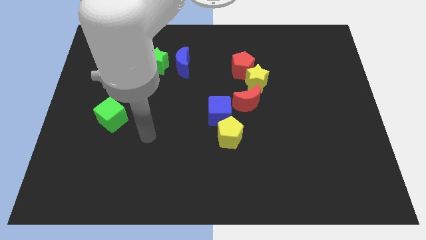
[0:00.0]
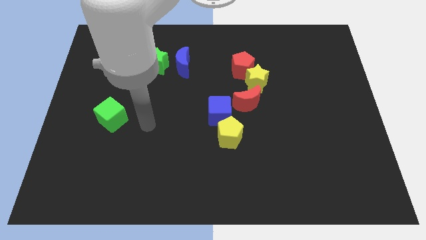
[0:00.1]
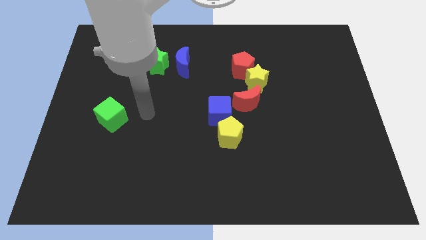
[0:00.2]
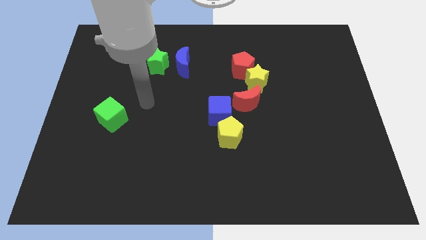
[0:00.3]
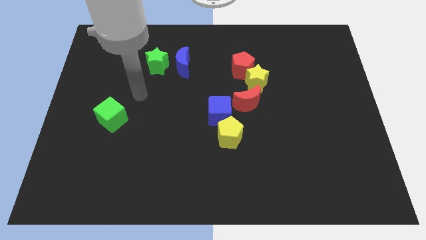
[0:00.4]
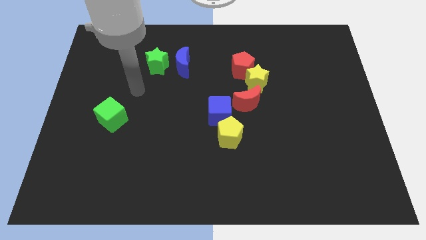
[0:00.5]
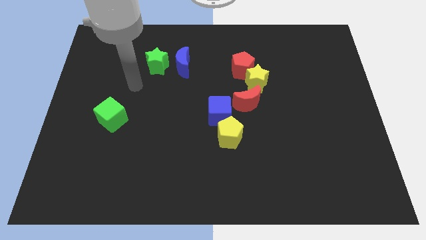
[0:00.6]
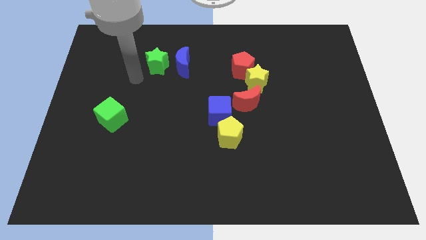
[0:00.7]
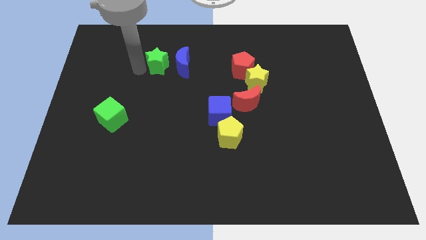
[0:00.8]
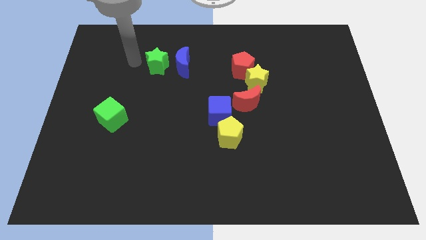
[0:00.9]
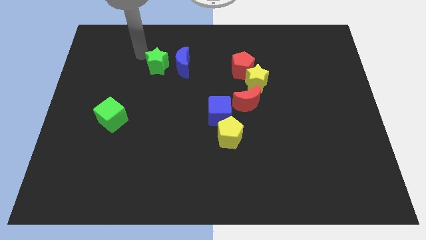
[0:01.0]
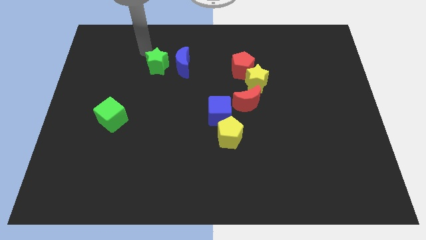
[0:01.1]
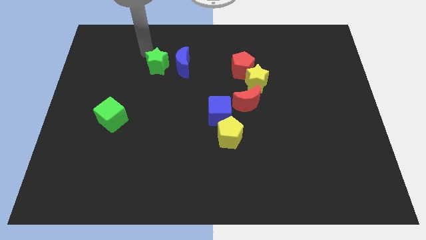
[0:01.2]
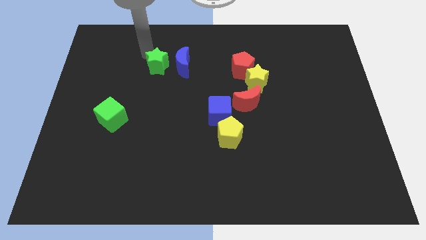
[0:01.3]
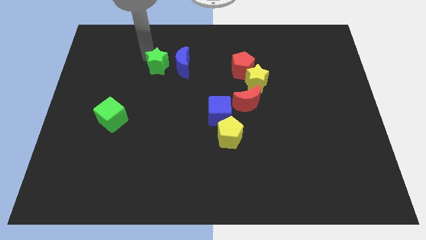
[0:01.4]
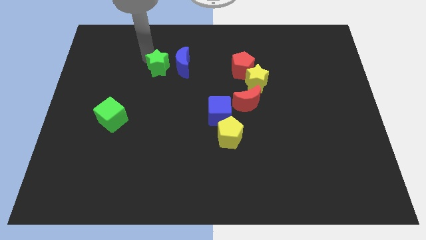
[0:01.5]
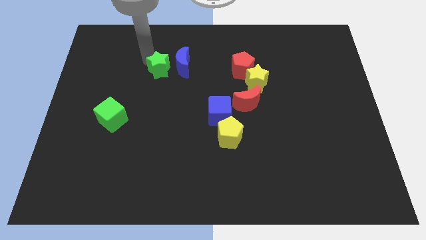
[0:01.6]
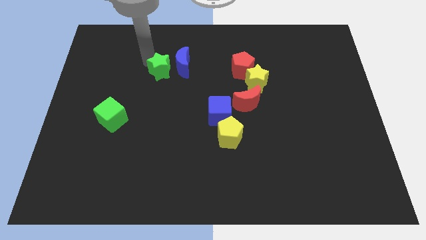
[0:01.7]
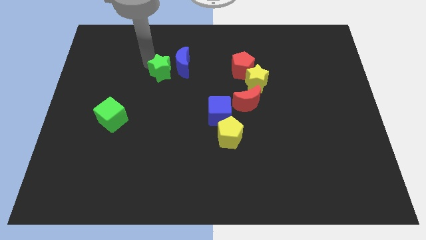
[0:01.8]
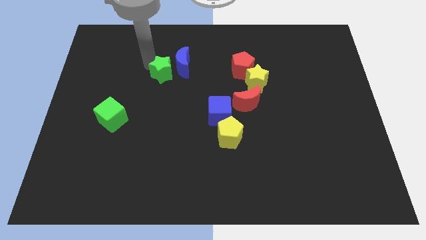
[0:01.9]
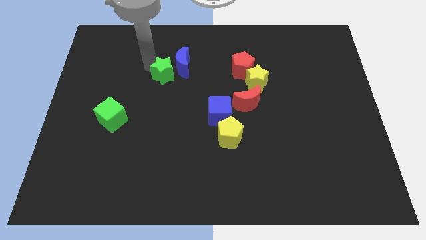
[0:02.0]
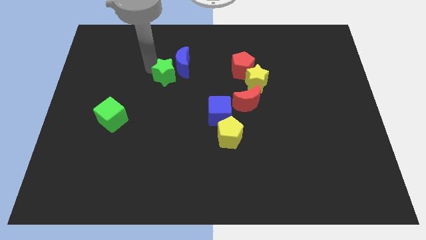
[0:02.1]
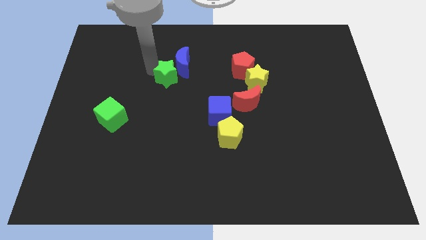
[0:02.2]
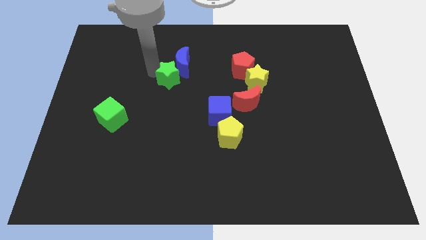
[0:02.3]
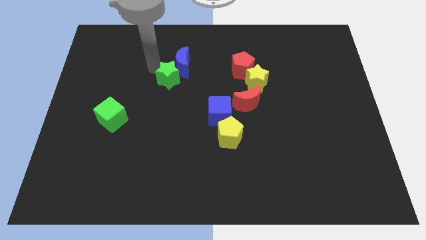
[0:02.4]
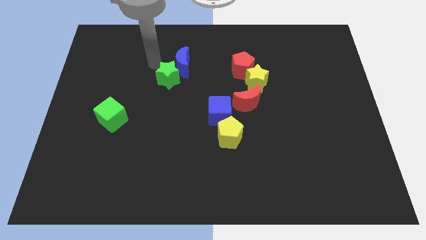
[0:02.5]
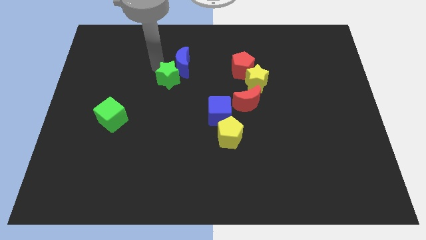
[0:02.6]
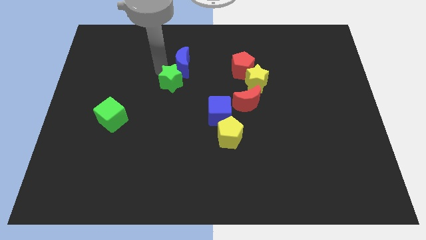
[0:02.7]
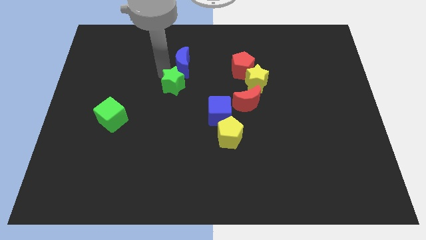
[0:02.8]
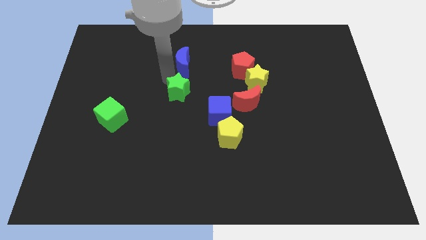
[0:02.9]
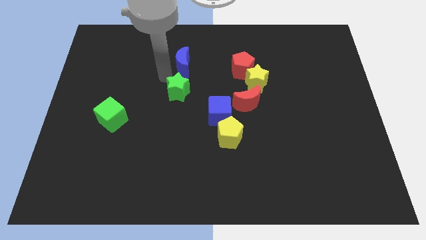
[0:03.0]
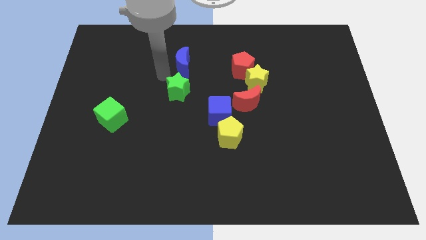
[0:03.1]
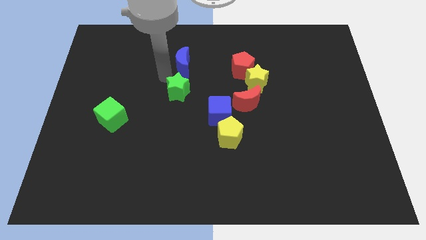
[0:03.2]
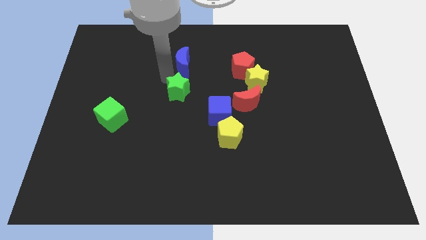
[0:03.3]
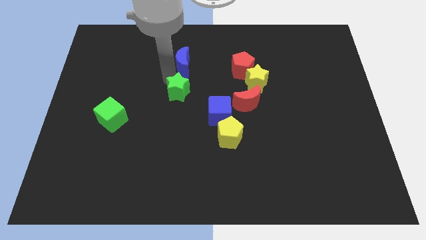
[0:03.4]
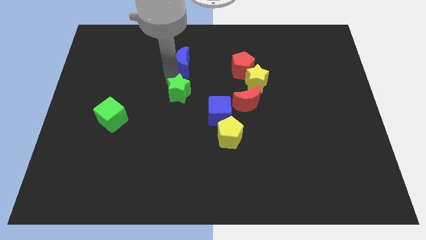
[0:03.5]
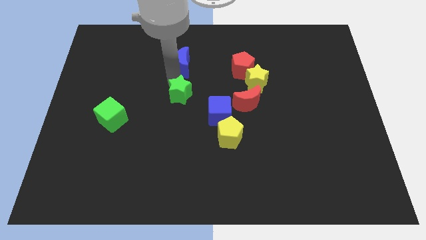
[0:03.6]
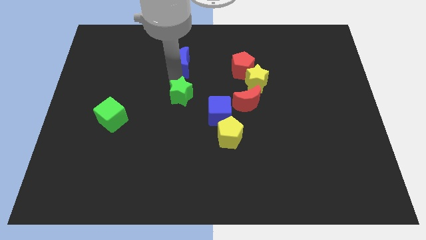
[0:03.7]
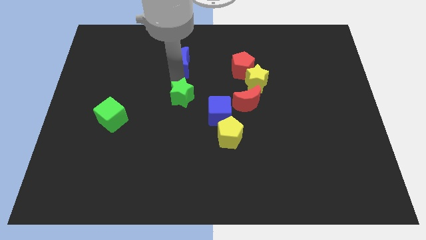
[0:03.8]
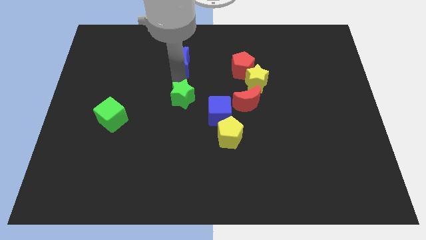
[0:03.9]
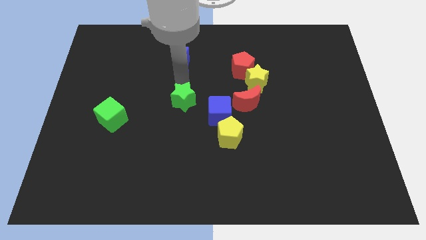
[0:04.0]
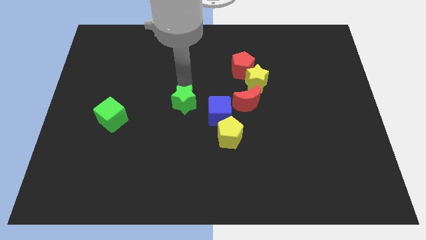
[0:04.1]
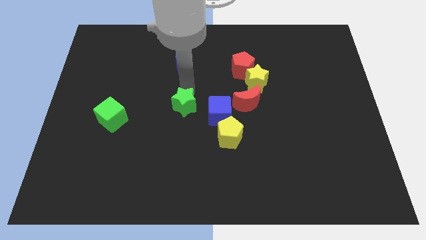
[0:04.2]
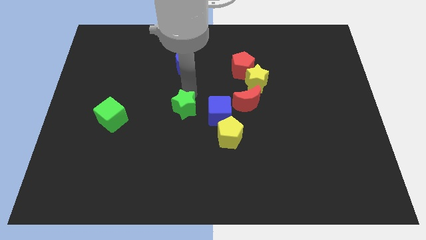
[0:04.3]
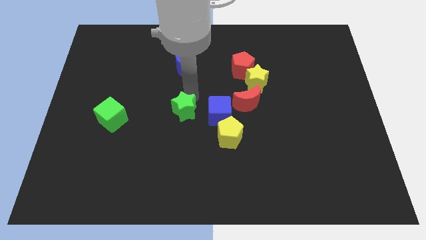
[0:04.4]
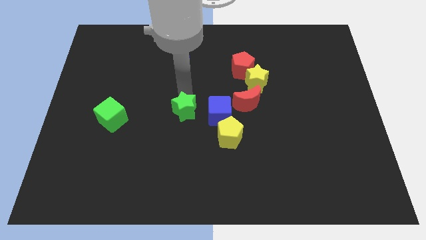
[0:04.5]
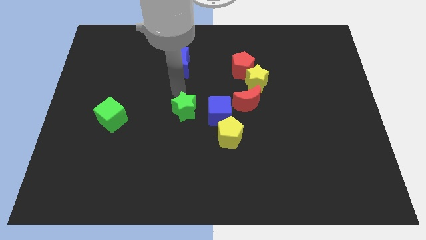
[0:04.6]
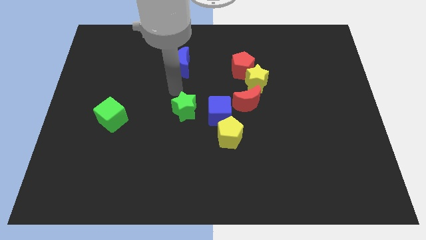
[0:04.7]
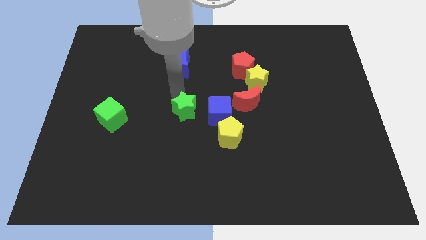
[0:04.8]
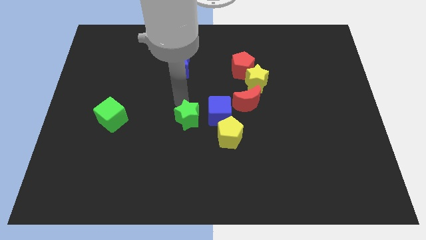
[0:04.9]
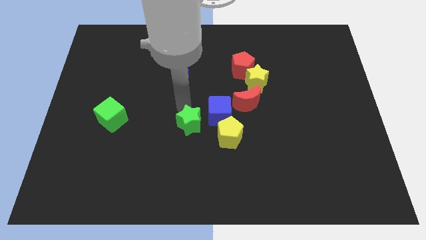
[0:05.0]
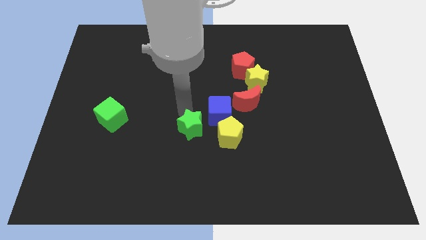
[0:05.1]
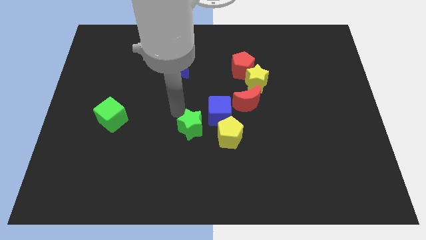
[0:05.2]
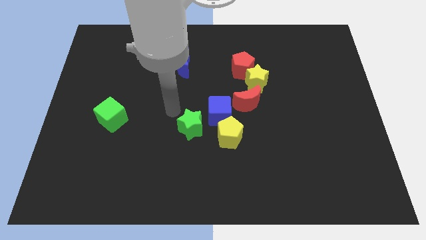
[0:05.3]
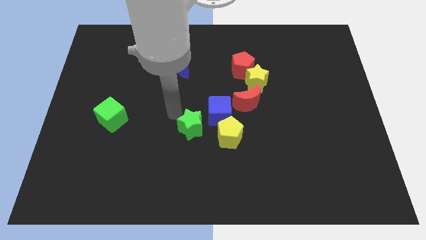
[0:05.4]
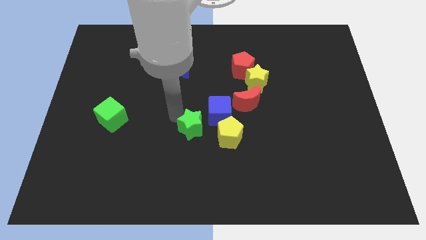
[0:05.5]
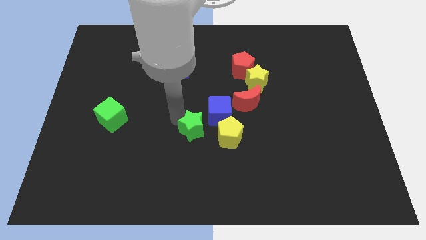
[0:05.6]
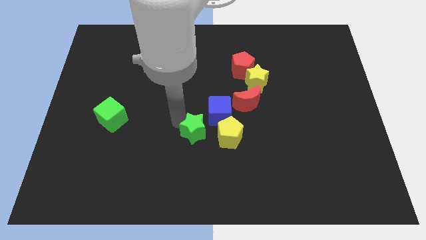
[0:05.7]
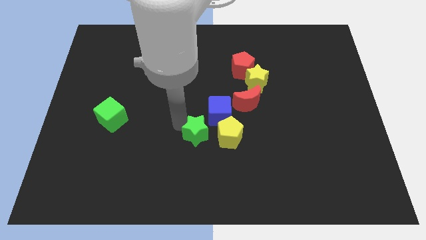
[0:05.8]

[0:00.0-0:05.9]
slide the green star down and to the right

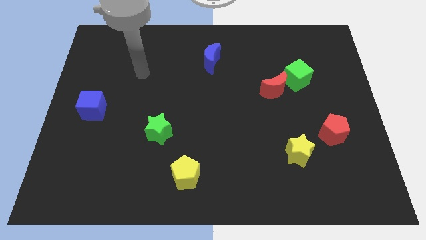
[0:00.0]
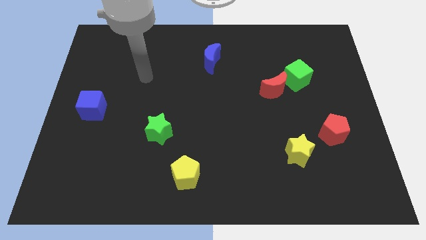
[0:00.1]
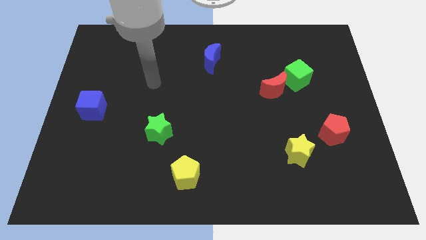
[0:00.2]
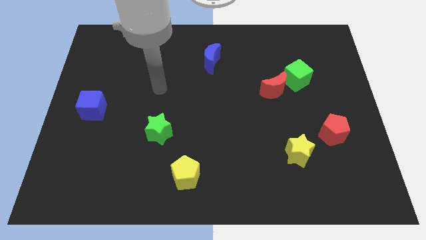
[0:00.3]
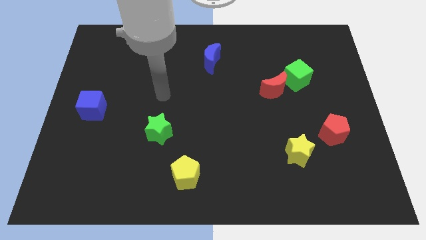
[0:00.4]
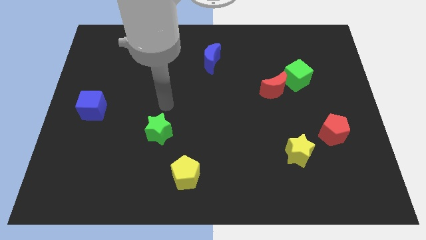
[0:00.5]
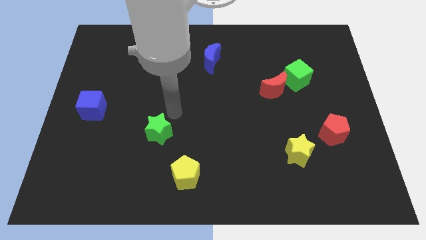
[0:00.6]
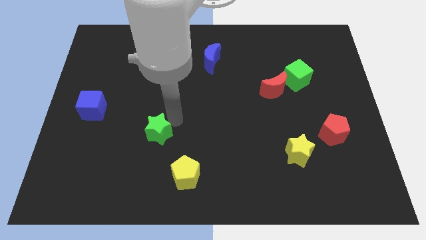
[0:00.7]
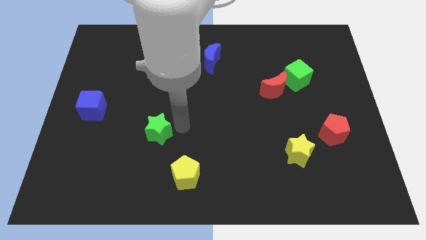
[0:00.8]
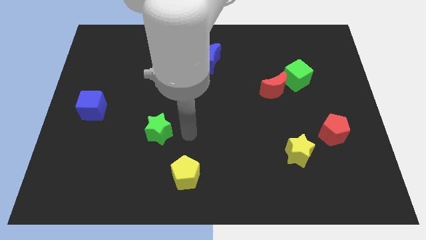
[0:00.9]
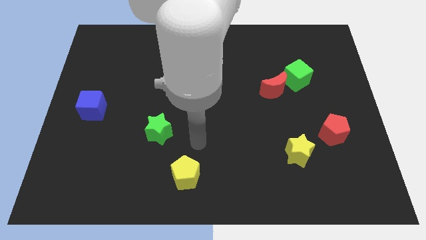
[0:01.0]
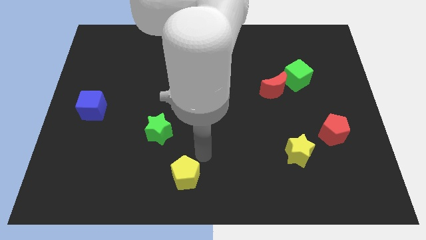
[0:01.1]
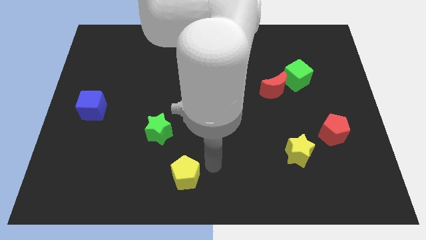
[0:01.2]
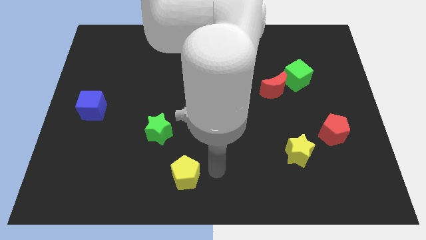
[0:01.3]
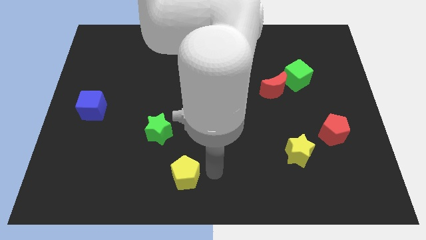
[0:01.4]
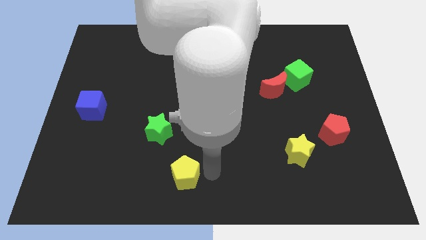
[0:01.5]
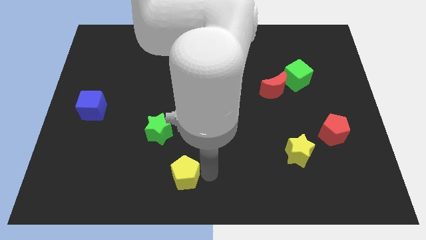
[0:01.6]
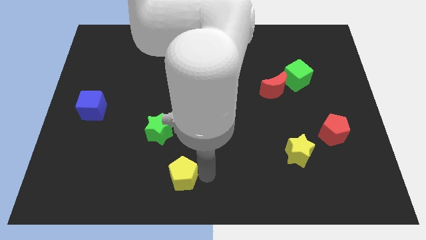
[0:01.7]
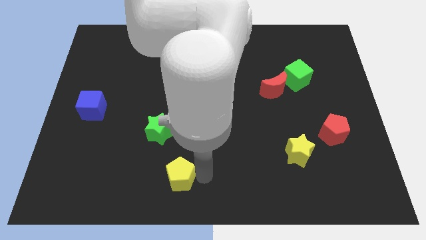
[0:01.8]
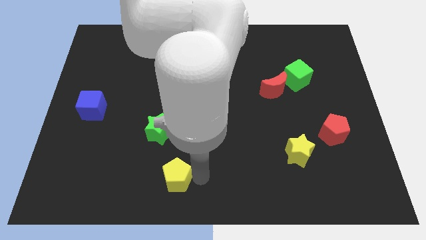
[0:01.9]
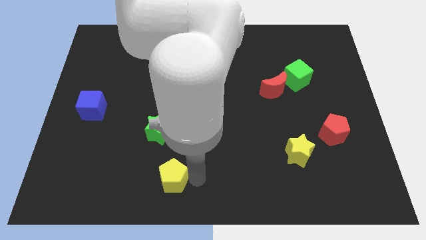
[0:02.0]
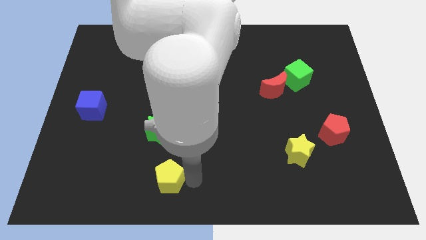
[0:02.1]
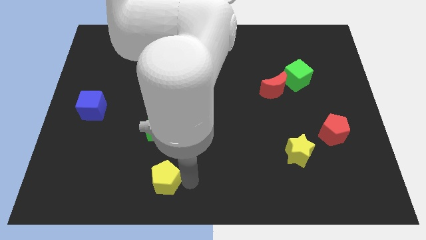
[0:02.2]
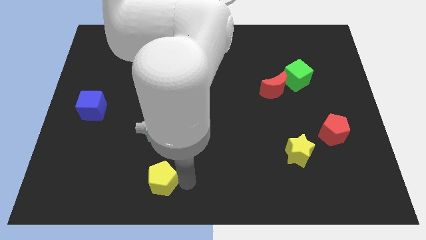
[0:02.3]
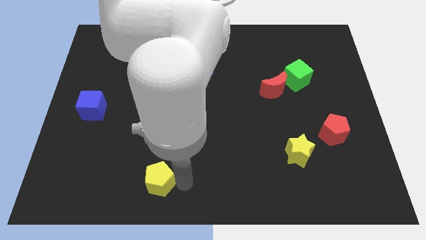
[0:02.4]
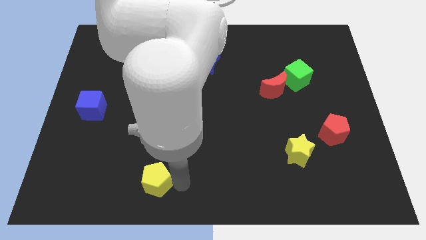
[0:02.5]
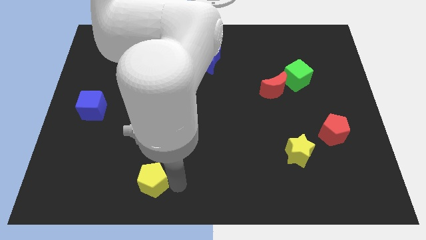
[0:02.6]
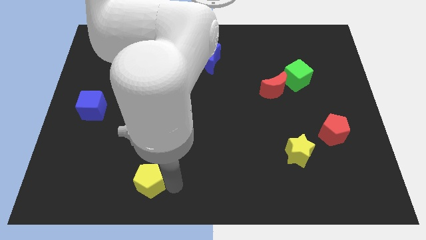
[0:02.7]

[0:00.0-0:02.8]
move the yellow pentagon to the left a bit
